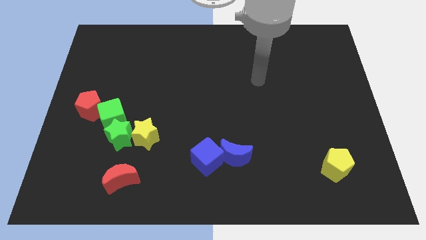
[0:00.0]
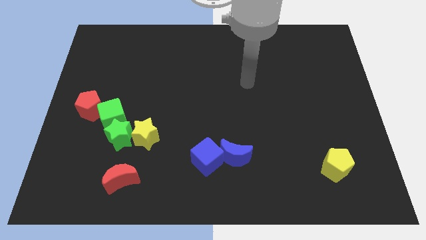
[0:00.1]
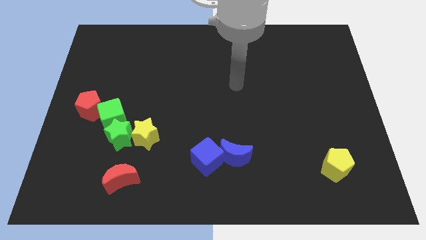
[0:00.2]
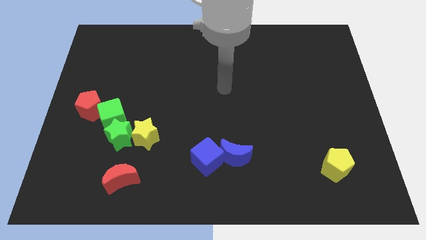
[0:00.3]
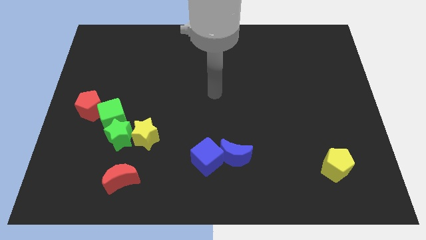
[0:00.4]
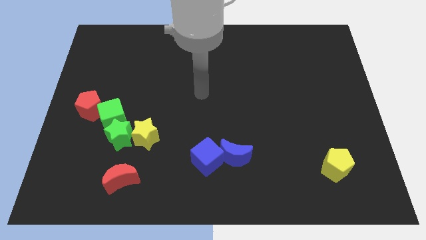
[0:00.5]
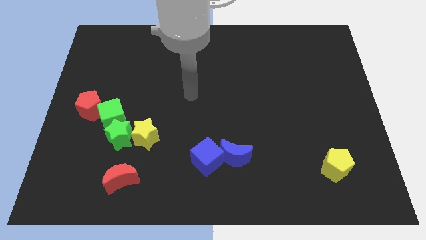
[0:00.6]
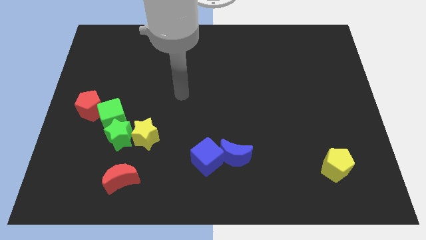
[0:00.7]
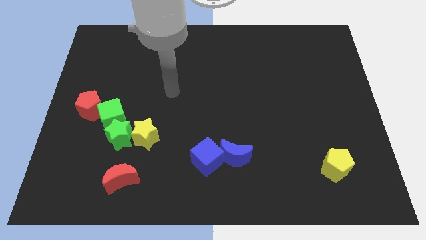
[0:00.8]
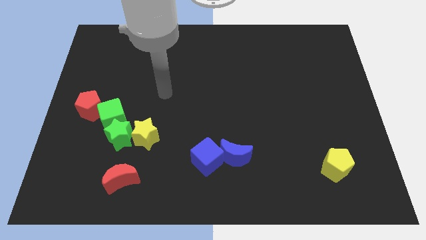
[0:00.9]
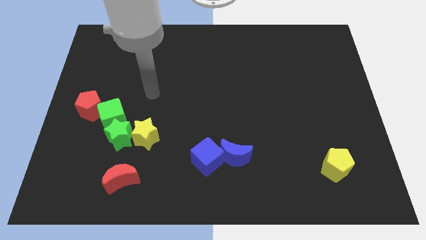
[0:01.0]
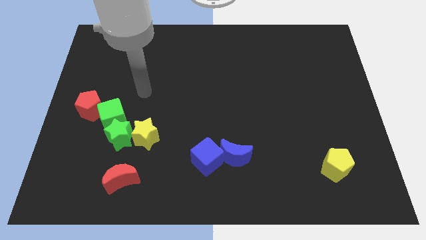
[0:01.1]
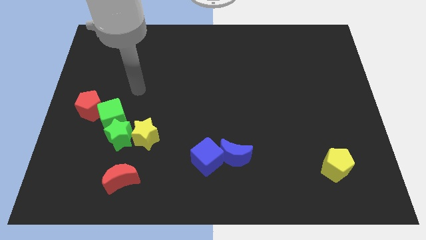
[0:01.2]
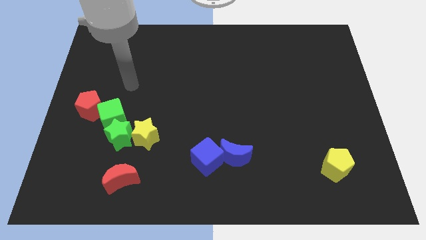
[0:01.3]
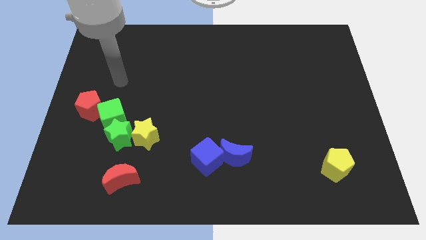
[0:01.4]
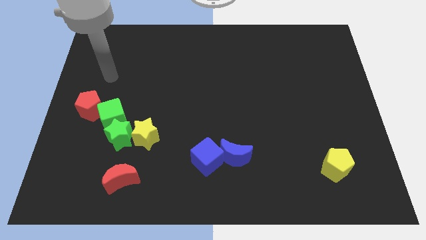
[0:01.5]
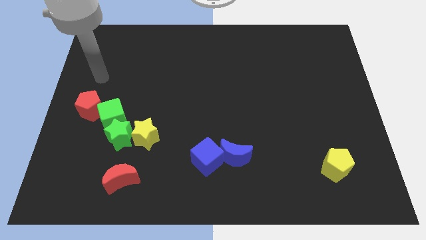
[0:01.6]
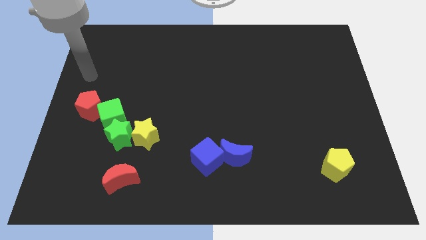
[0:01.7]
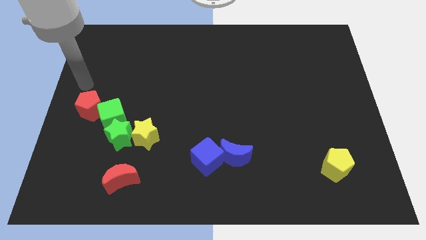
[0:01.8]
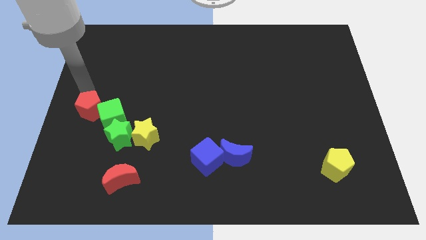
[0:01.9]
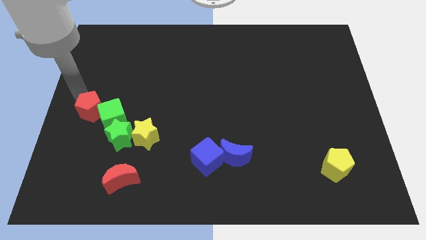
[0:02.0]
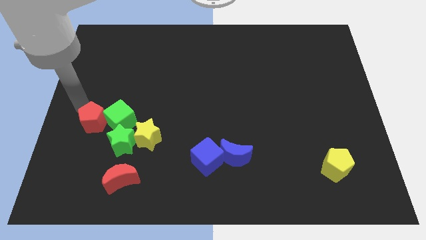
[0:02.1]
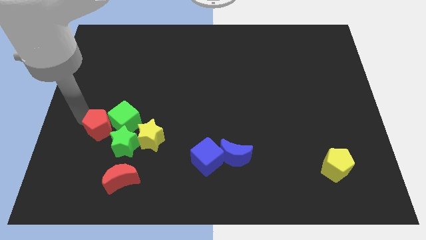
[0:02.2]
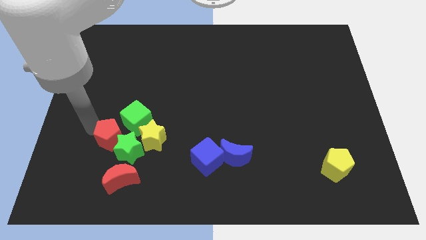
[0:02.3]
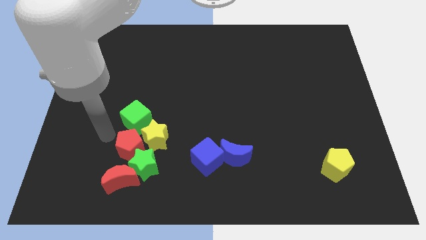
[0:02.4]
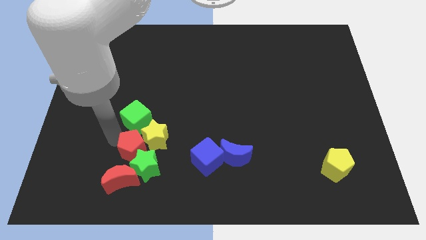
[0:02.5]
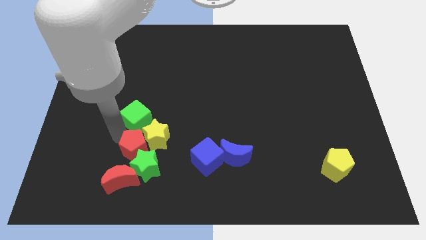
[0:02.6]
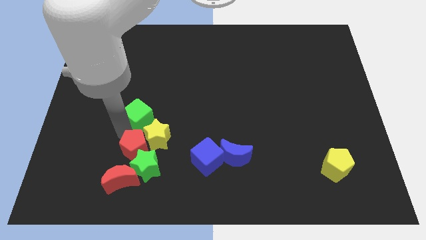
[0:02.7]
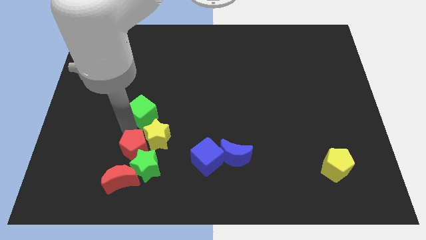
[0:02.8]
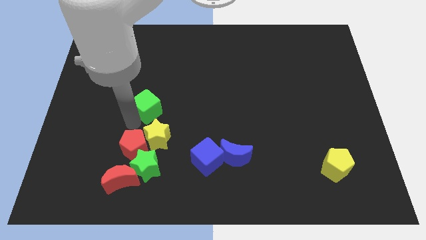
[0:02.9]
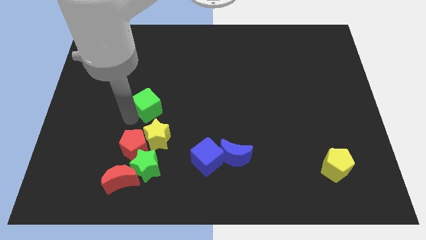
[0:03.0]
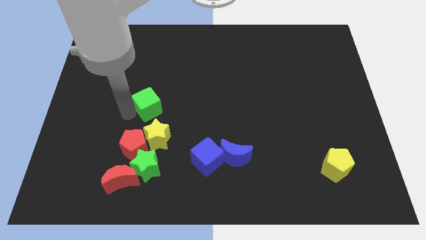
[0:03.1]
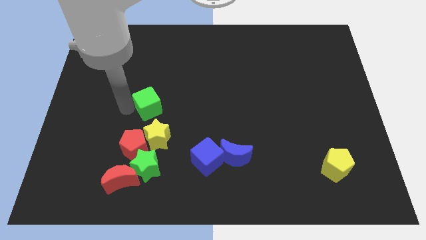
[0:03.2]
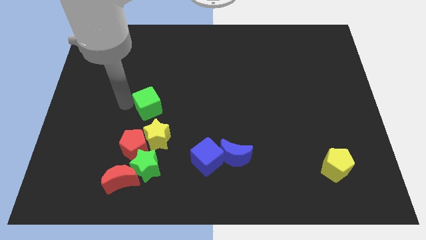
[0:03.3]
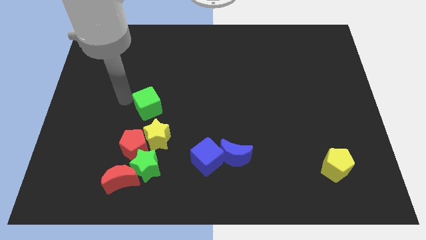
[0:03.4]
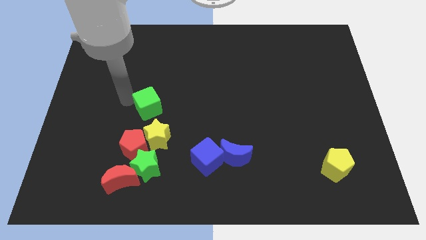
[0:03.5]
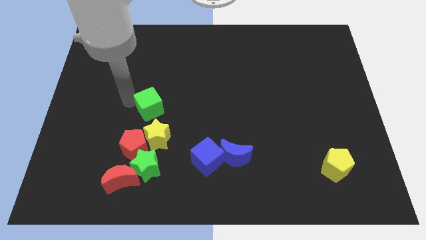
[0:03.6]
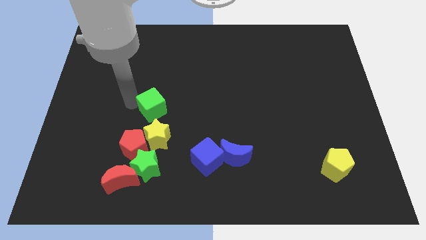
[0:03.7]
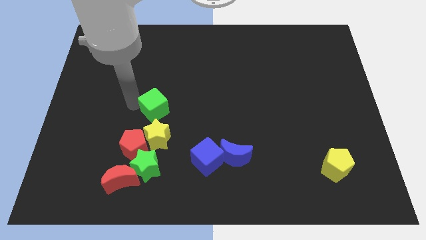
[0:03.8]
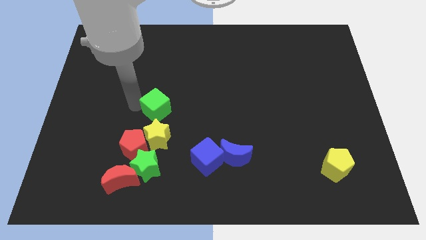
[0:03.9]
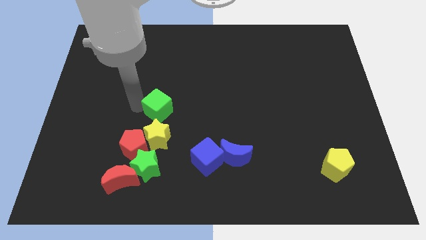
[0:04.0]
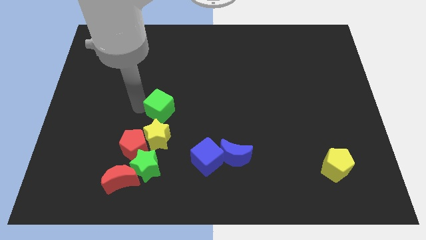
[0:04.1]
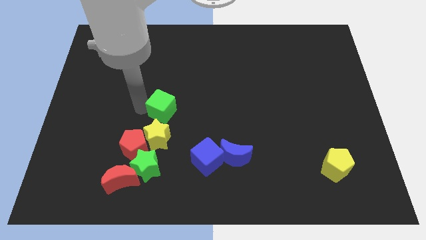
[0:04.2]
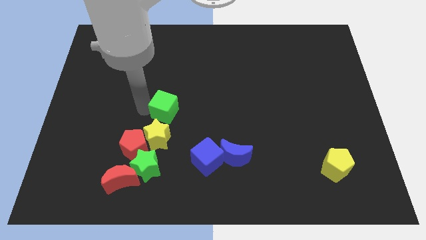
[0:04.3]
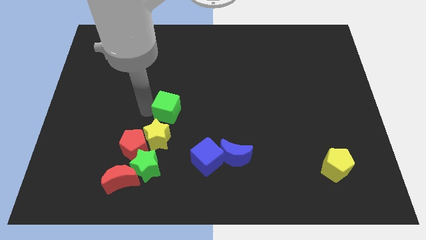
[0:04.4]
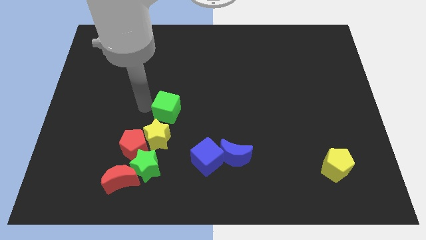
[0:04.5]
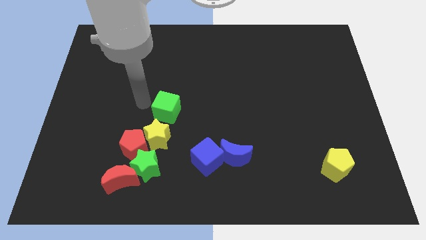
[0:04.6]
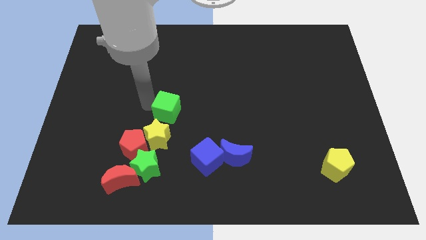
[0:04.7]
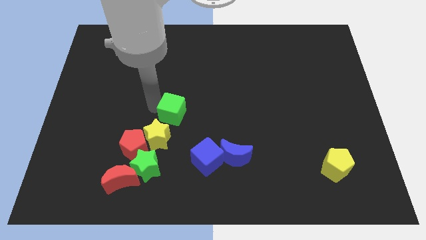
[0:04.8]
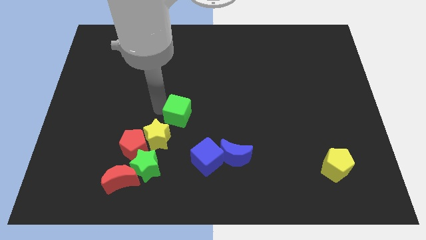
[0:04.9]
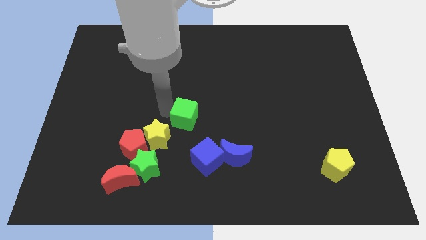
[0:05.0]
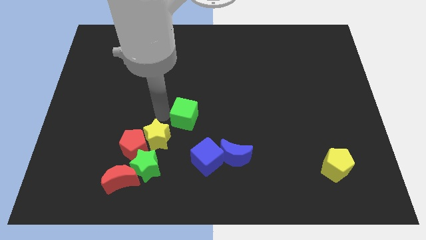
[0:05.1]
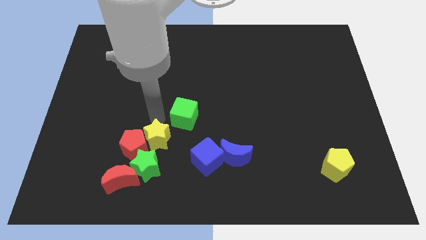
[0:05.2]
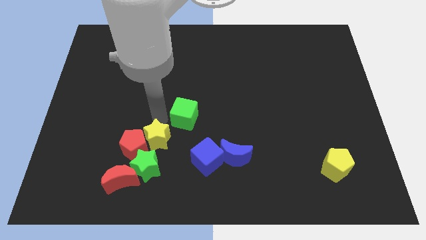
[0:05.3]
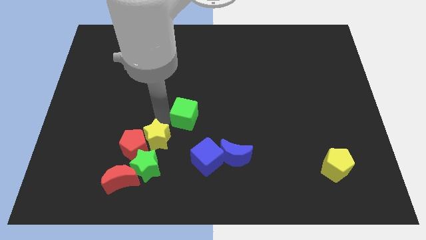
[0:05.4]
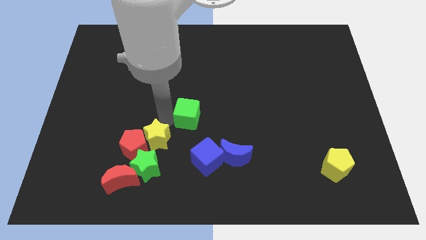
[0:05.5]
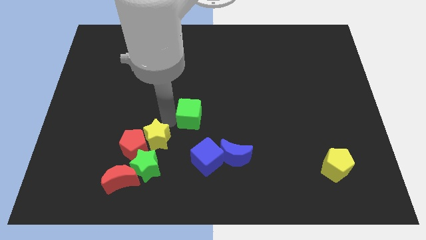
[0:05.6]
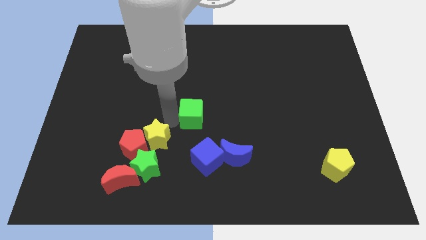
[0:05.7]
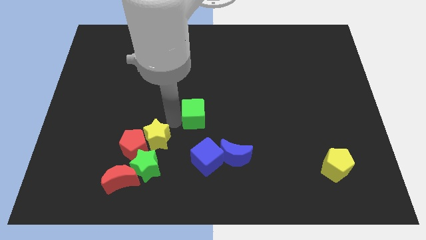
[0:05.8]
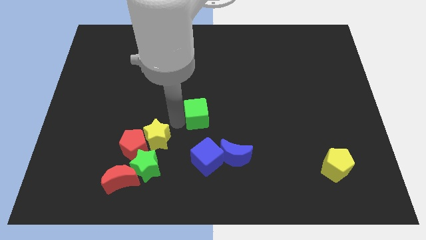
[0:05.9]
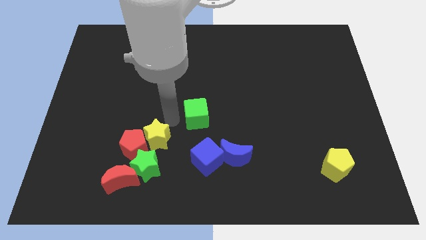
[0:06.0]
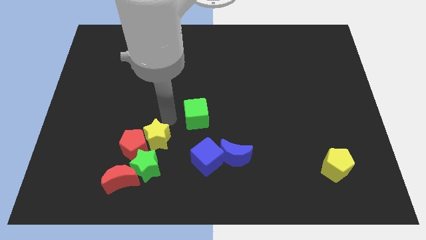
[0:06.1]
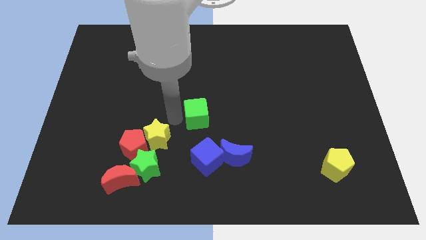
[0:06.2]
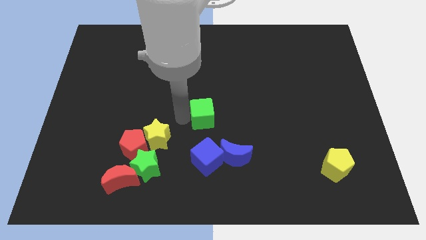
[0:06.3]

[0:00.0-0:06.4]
move the green cube right

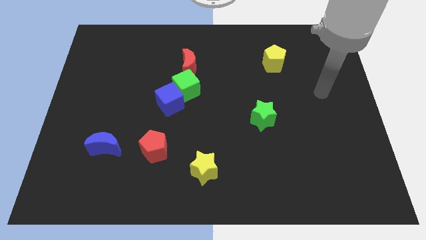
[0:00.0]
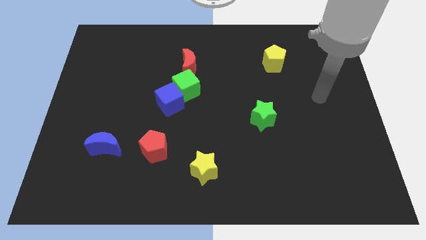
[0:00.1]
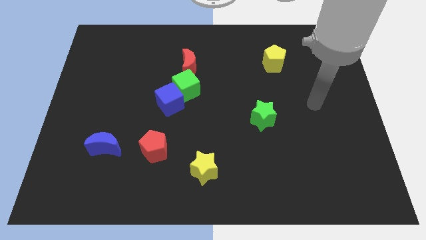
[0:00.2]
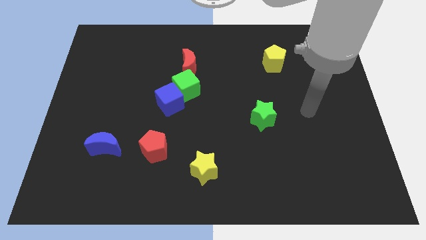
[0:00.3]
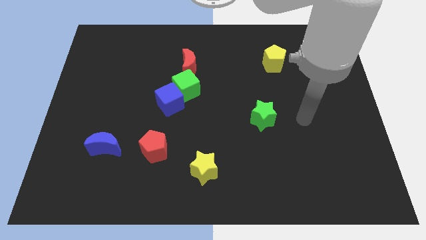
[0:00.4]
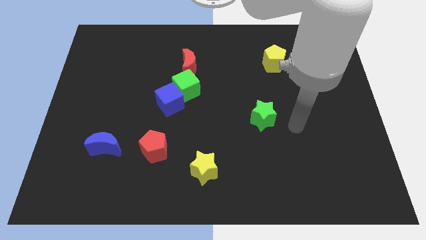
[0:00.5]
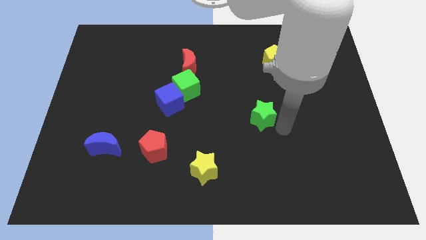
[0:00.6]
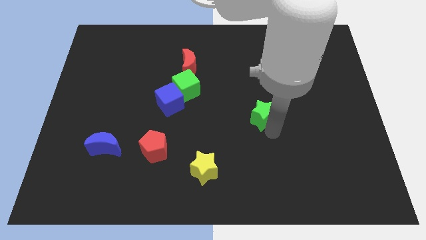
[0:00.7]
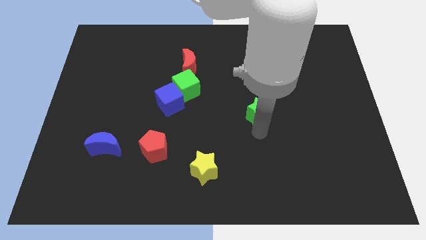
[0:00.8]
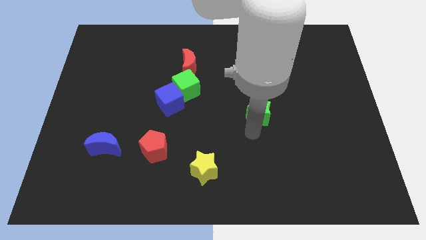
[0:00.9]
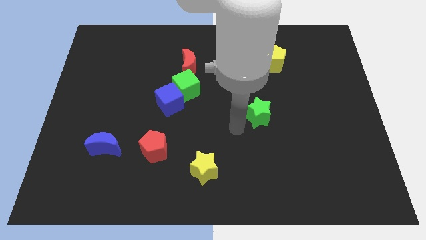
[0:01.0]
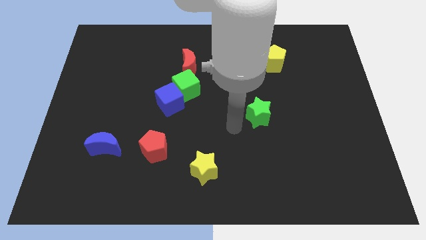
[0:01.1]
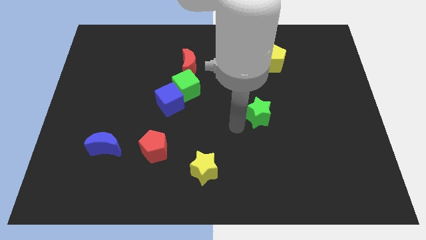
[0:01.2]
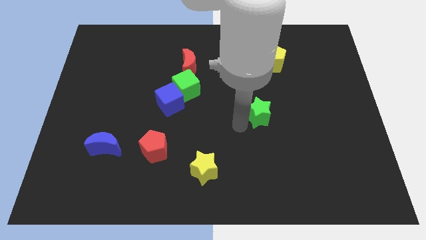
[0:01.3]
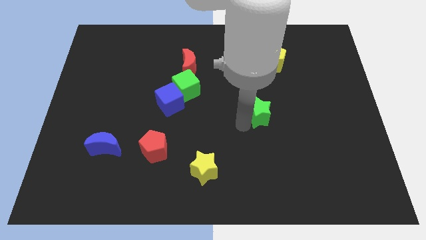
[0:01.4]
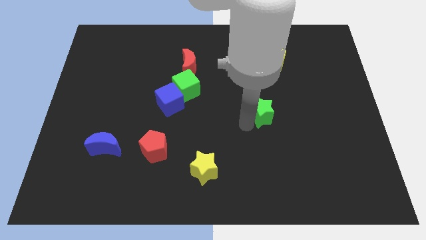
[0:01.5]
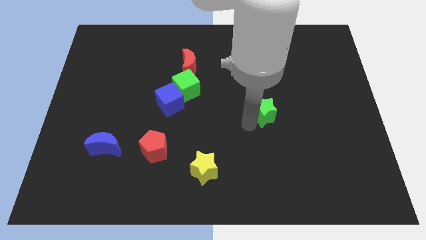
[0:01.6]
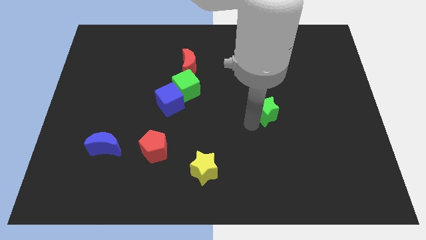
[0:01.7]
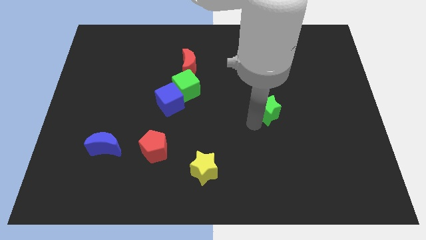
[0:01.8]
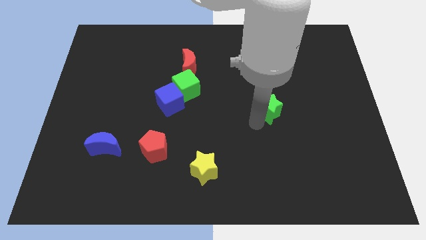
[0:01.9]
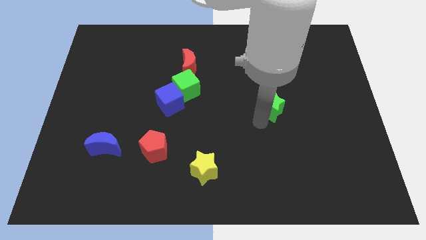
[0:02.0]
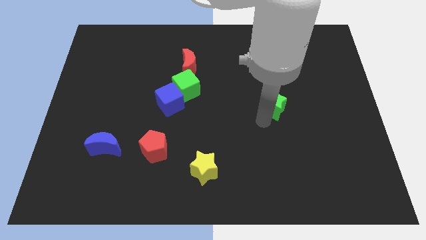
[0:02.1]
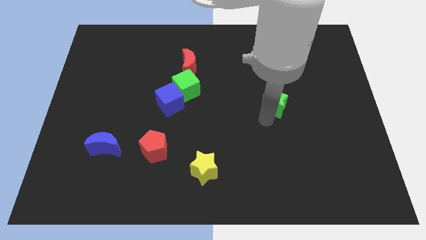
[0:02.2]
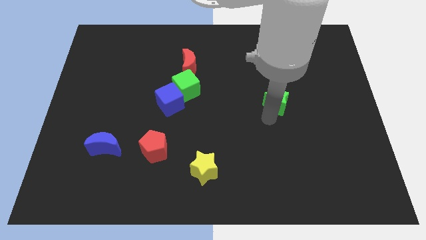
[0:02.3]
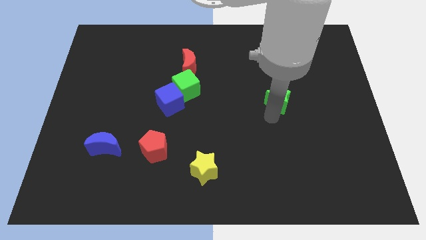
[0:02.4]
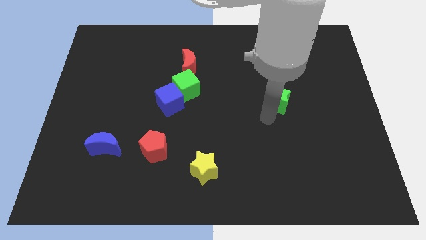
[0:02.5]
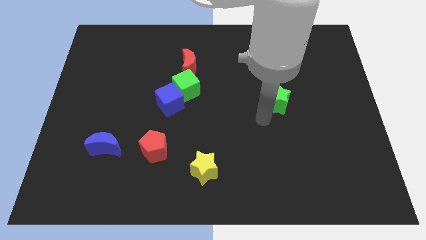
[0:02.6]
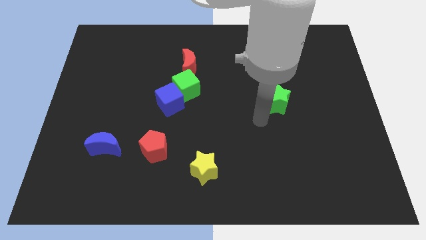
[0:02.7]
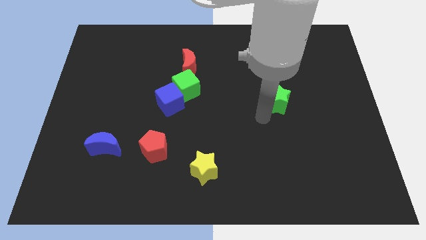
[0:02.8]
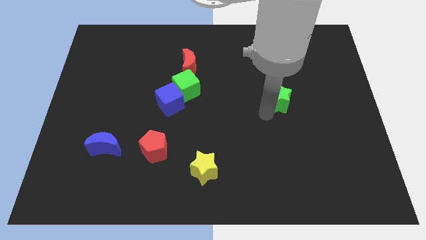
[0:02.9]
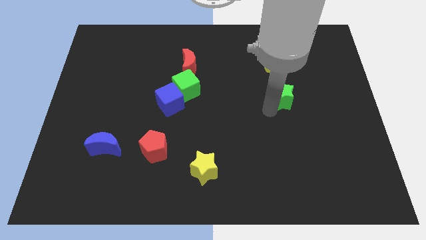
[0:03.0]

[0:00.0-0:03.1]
slightly push the green star upwards and then to the right
